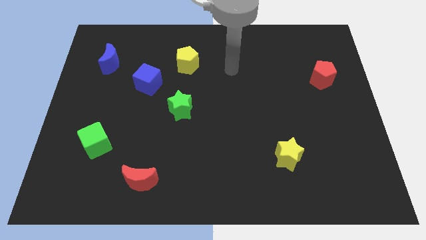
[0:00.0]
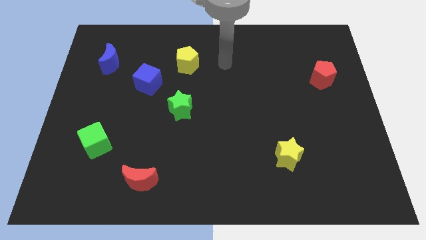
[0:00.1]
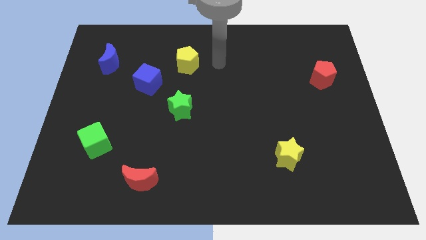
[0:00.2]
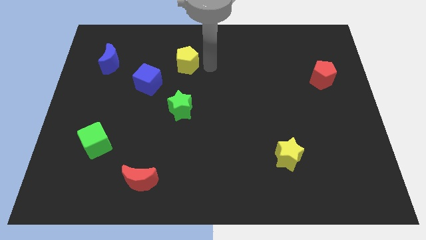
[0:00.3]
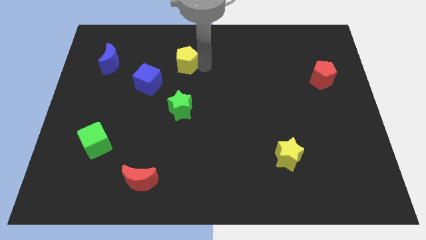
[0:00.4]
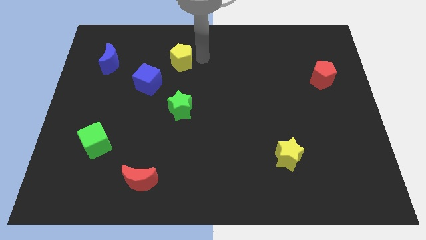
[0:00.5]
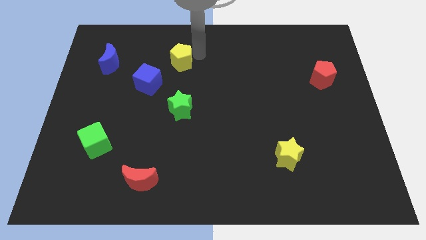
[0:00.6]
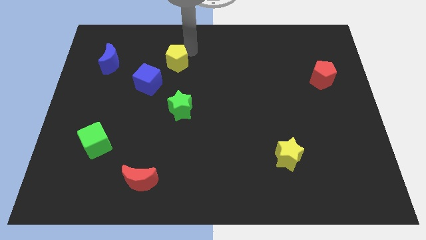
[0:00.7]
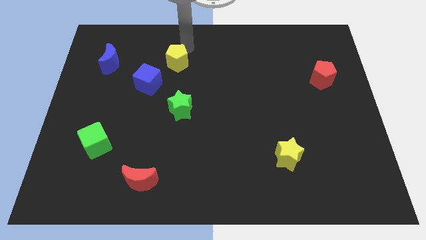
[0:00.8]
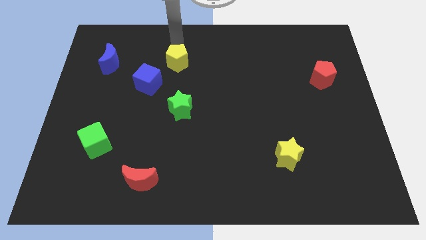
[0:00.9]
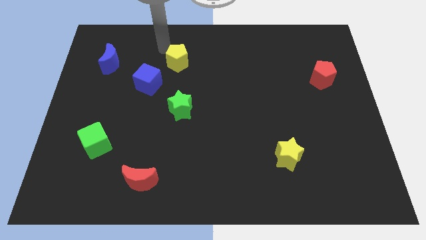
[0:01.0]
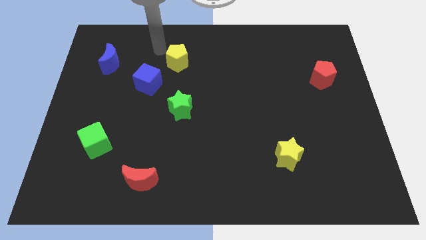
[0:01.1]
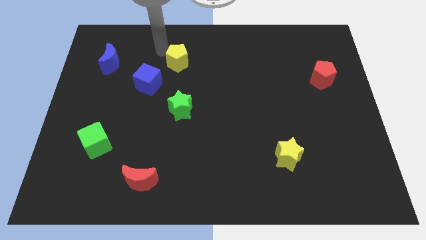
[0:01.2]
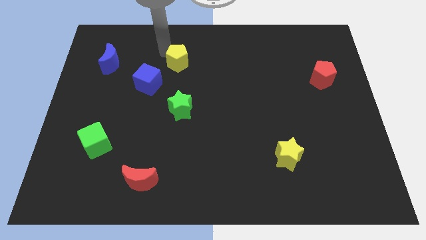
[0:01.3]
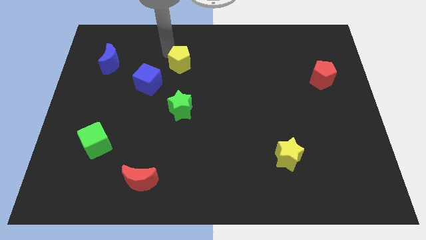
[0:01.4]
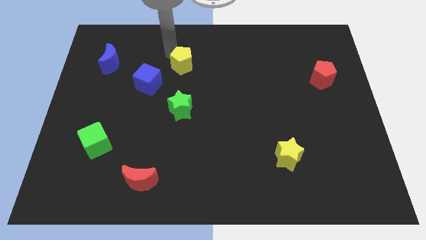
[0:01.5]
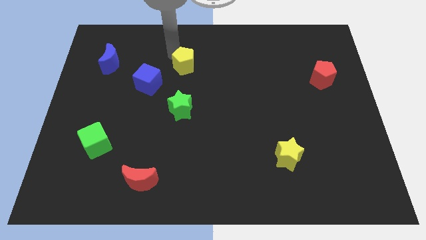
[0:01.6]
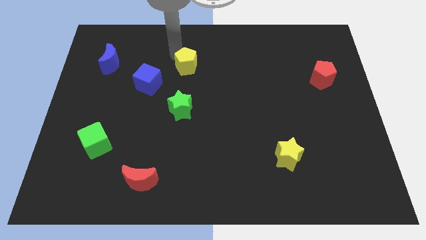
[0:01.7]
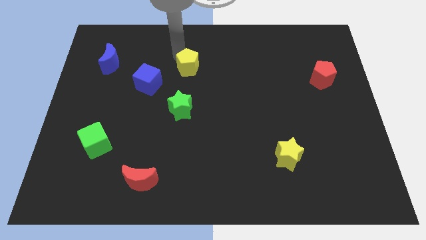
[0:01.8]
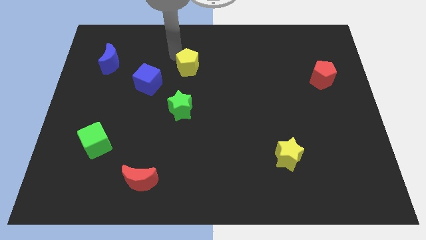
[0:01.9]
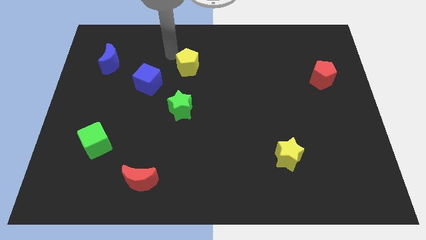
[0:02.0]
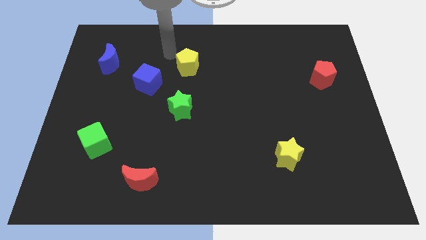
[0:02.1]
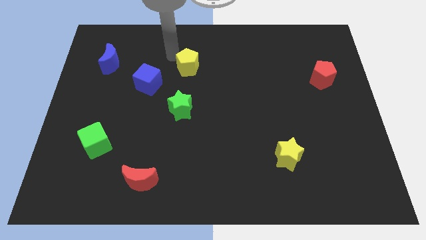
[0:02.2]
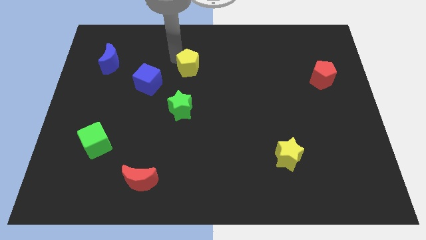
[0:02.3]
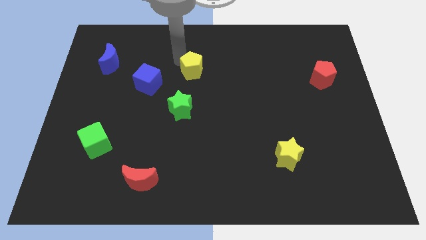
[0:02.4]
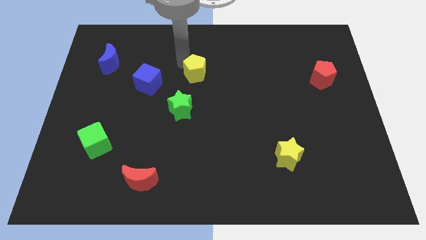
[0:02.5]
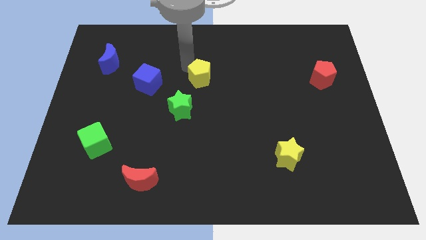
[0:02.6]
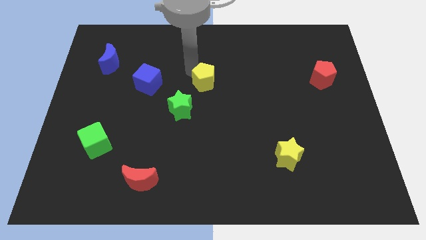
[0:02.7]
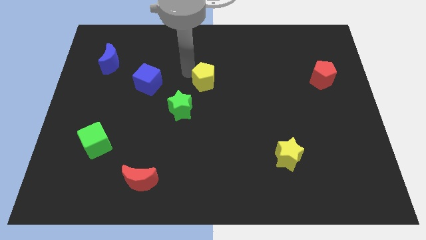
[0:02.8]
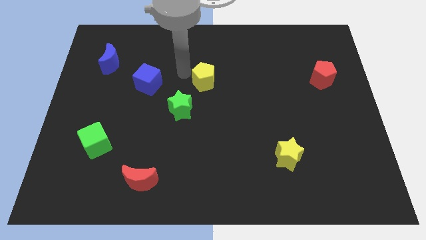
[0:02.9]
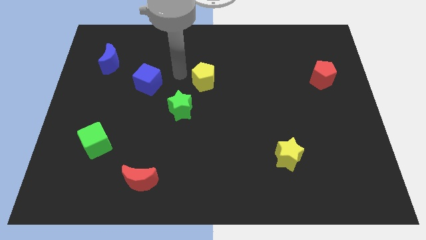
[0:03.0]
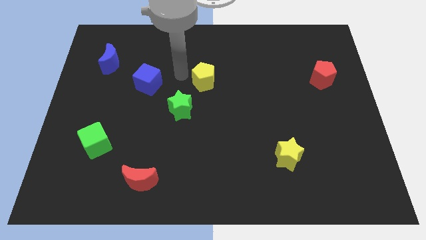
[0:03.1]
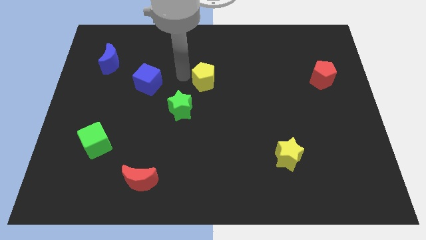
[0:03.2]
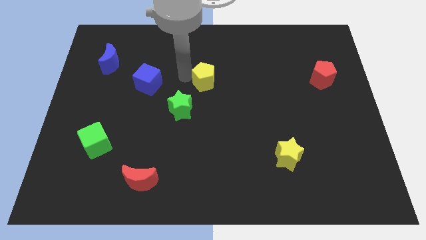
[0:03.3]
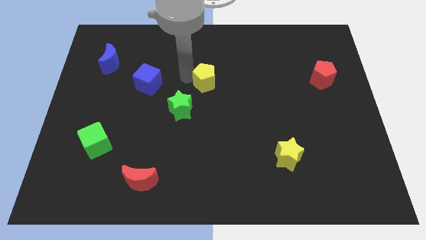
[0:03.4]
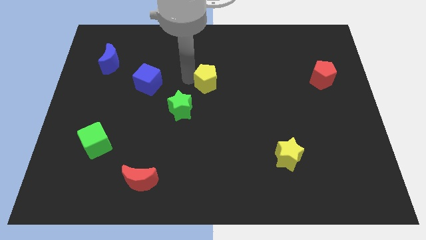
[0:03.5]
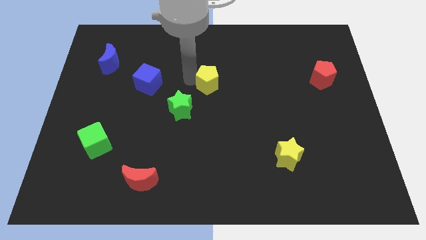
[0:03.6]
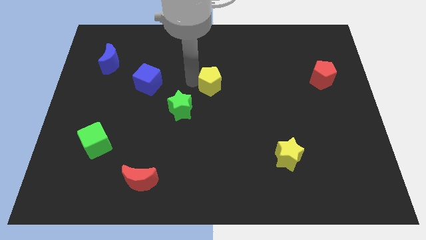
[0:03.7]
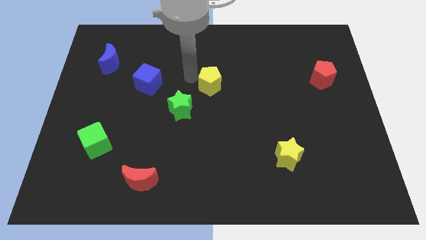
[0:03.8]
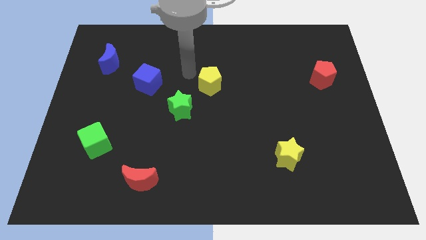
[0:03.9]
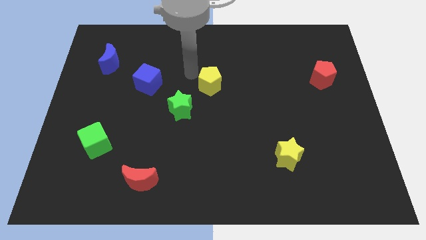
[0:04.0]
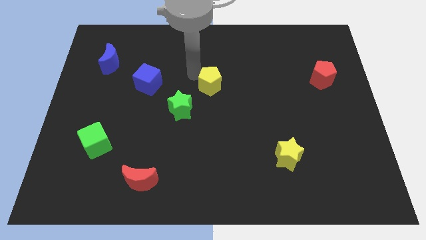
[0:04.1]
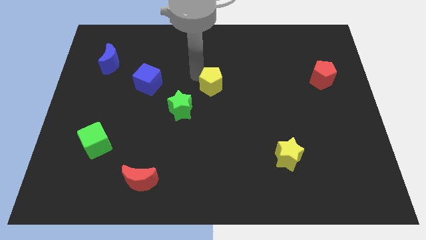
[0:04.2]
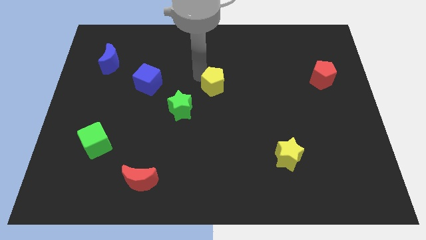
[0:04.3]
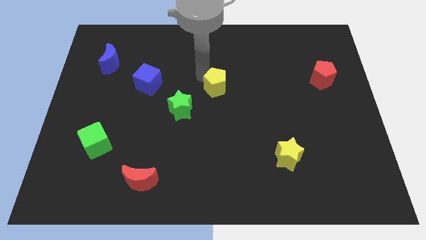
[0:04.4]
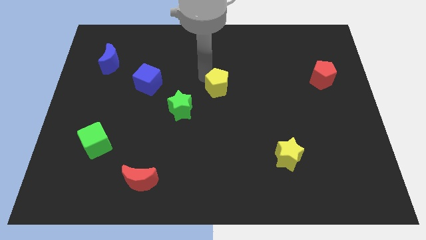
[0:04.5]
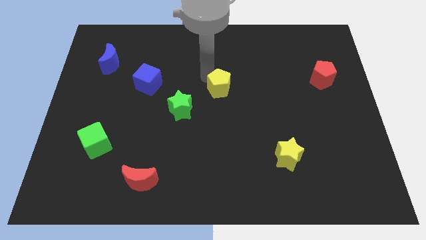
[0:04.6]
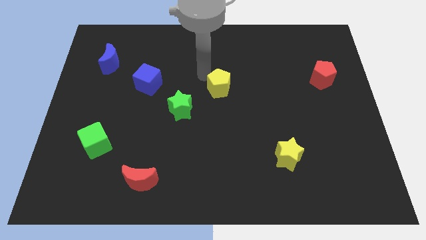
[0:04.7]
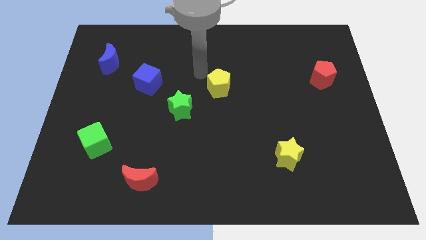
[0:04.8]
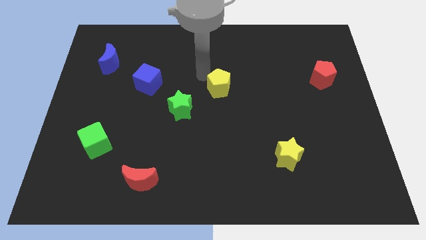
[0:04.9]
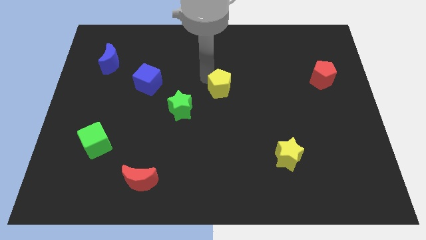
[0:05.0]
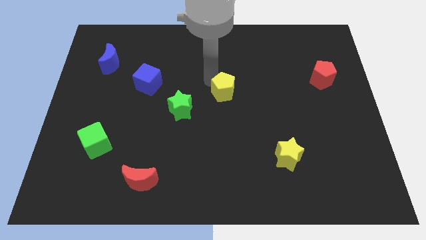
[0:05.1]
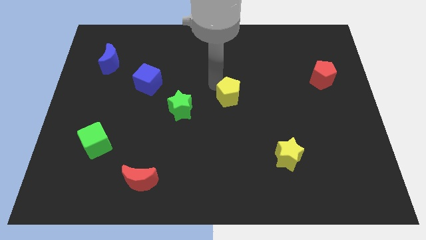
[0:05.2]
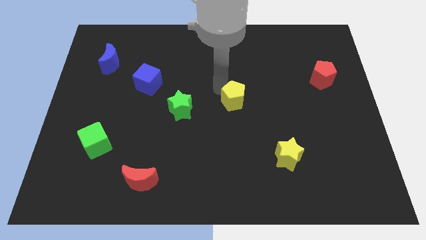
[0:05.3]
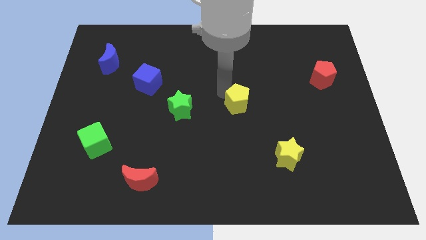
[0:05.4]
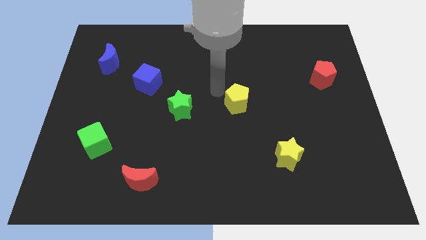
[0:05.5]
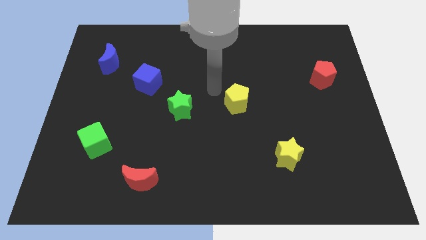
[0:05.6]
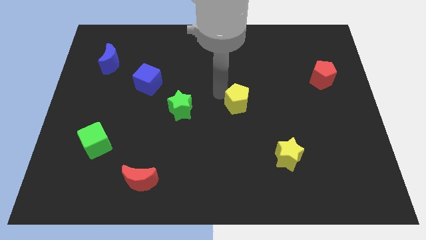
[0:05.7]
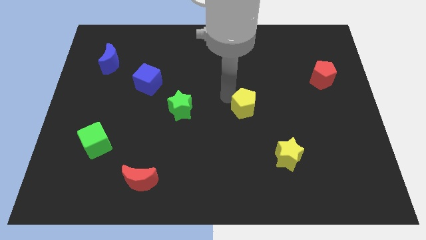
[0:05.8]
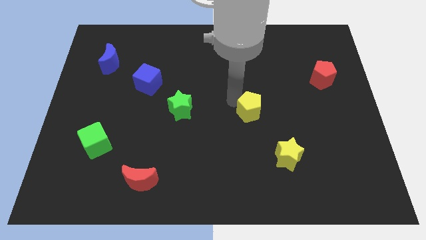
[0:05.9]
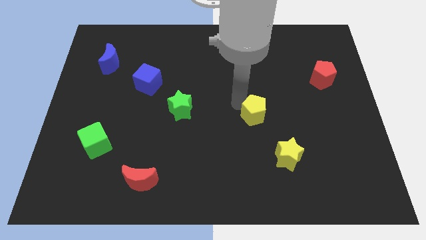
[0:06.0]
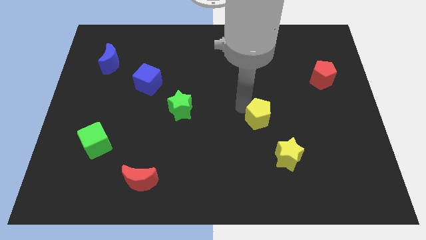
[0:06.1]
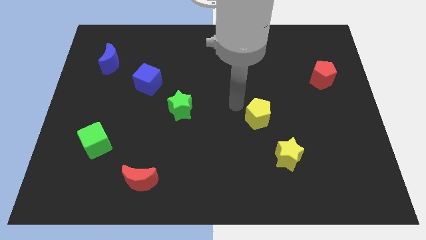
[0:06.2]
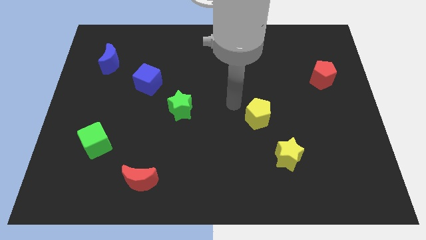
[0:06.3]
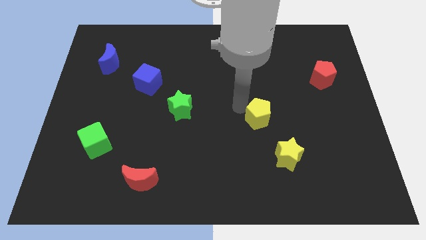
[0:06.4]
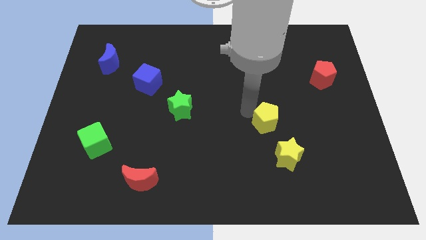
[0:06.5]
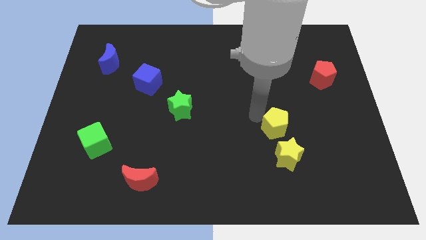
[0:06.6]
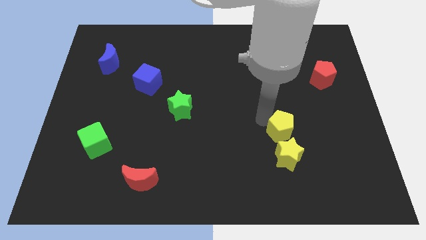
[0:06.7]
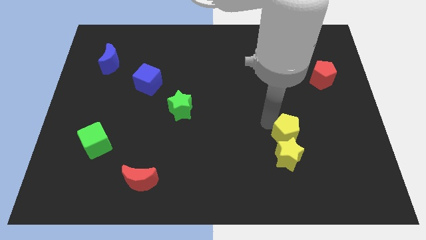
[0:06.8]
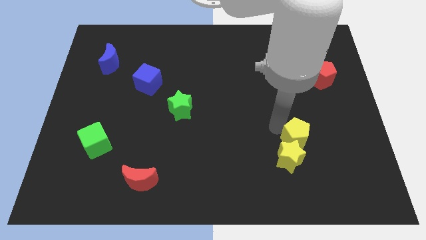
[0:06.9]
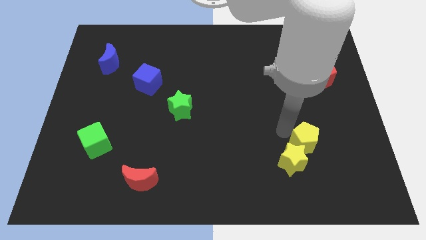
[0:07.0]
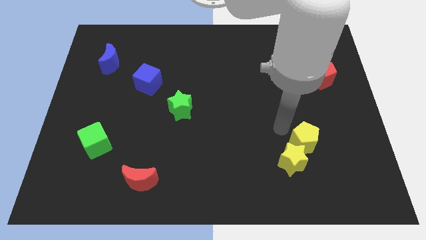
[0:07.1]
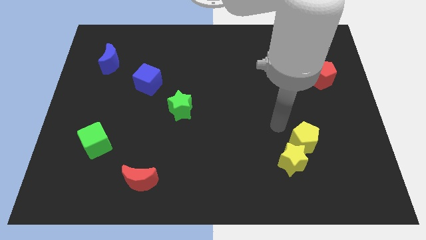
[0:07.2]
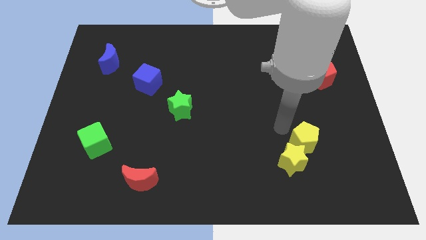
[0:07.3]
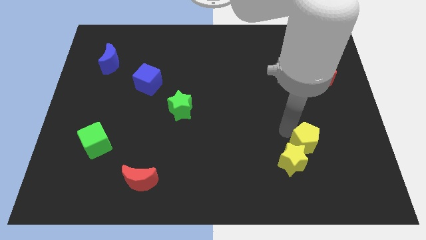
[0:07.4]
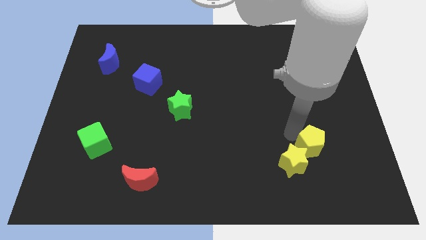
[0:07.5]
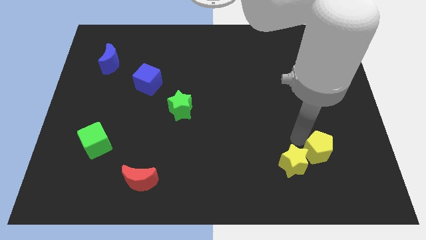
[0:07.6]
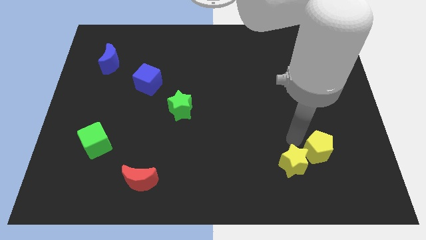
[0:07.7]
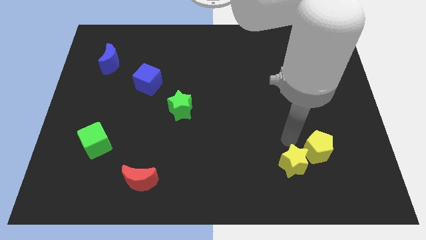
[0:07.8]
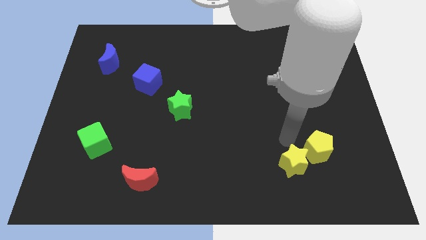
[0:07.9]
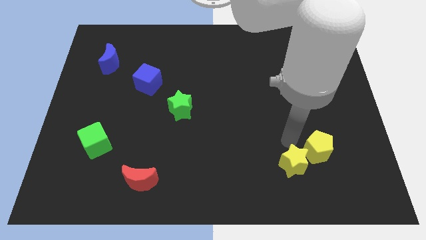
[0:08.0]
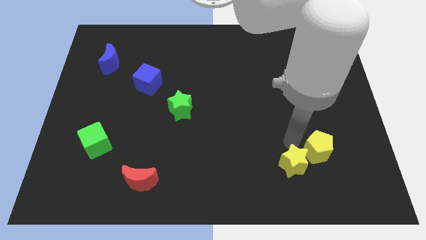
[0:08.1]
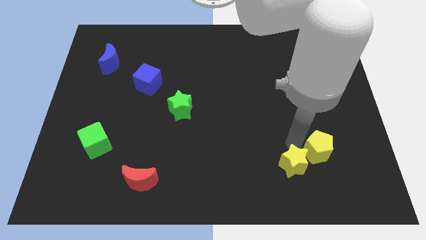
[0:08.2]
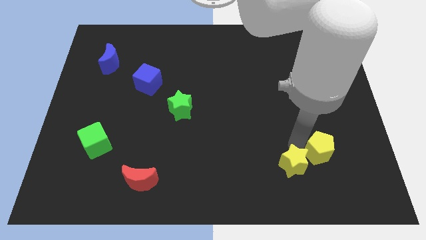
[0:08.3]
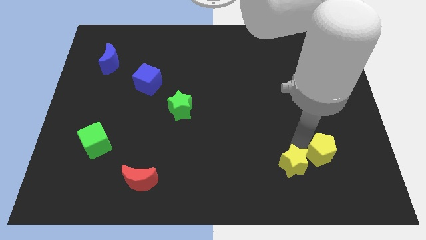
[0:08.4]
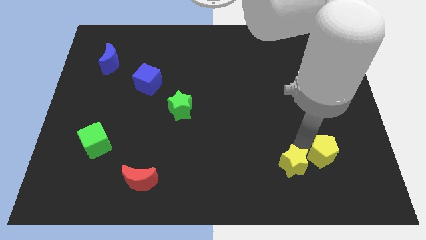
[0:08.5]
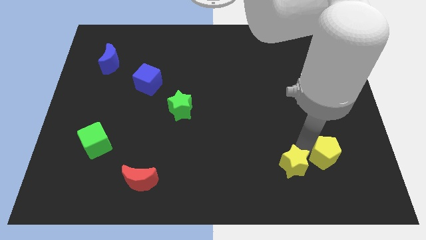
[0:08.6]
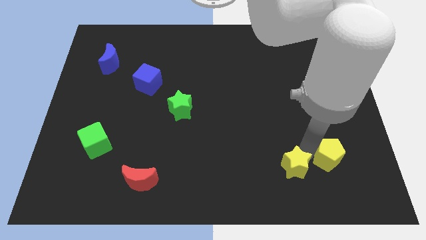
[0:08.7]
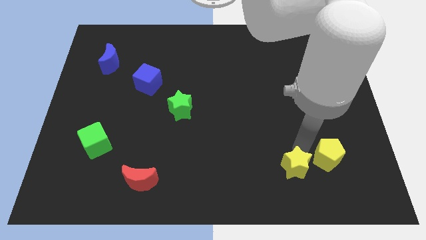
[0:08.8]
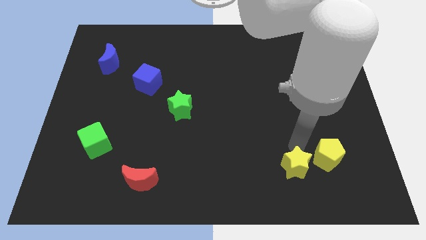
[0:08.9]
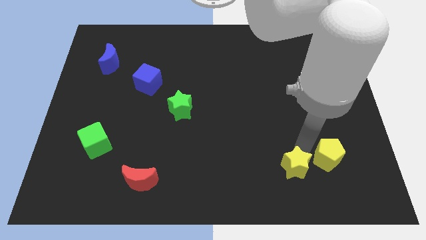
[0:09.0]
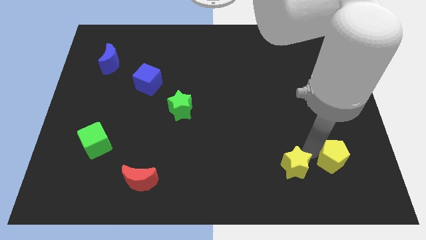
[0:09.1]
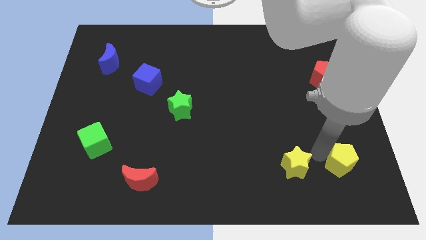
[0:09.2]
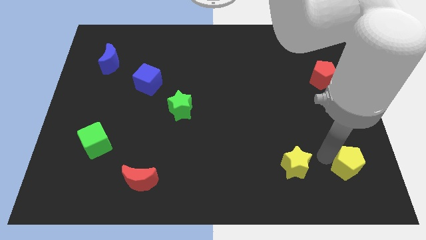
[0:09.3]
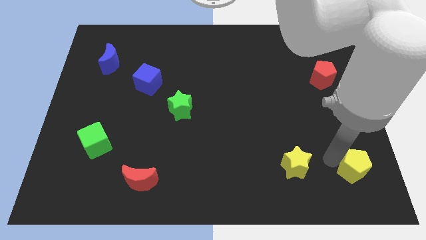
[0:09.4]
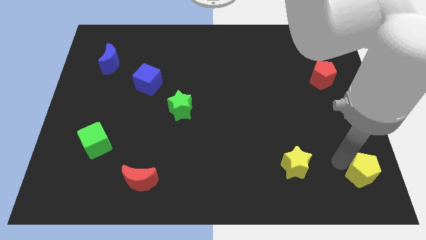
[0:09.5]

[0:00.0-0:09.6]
put the yellow pentagon to the bottom right of the board
